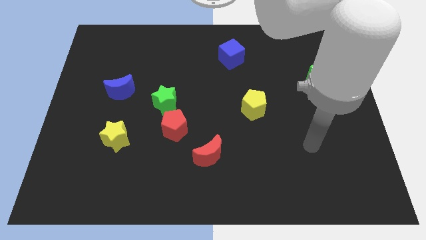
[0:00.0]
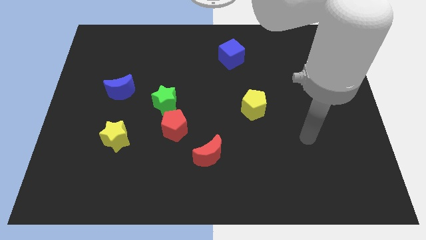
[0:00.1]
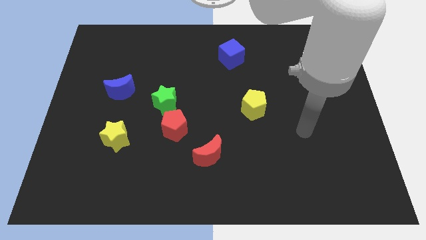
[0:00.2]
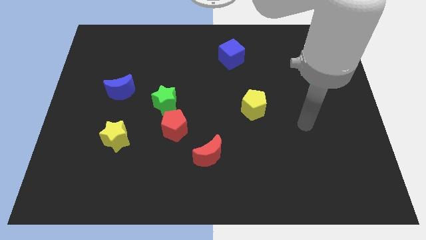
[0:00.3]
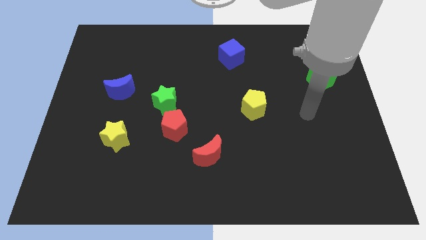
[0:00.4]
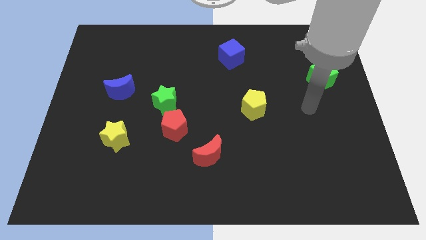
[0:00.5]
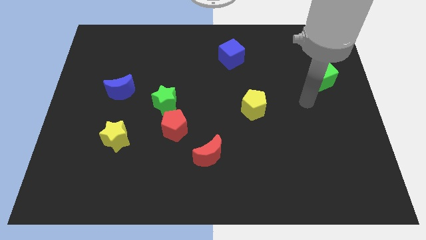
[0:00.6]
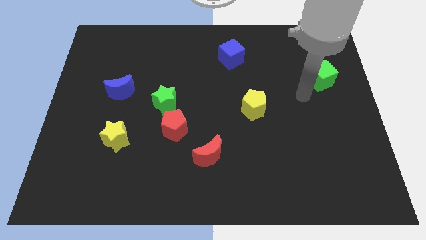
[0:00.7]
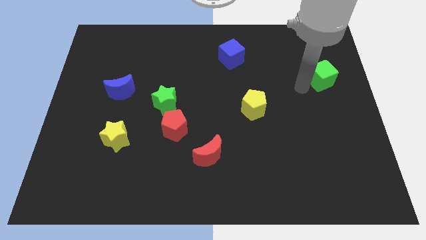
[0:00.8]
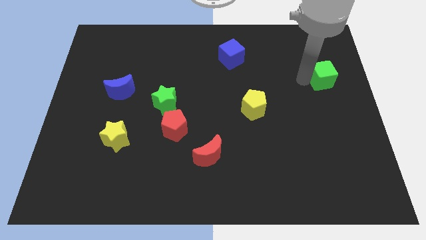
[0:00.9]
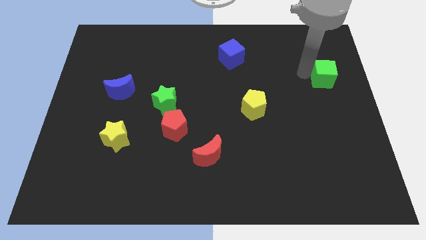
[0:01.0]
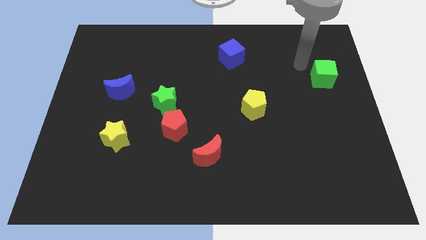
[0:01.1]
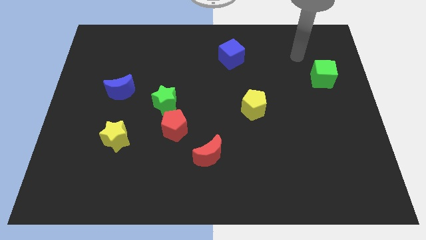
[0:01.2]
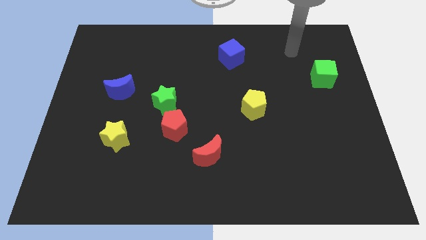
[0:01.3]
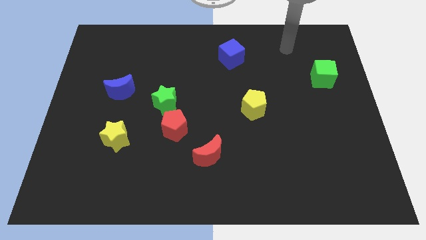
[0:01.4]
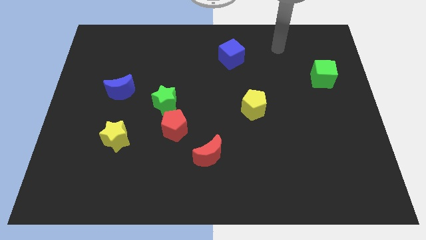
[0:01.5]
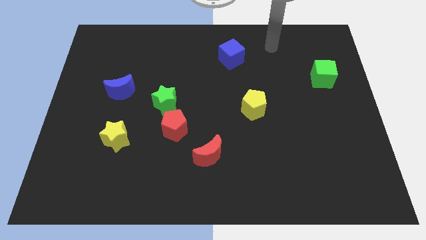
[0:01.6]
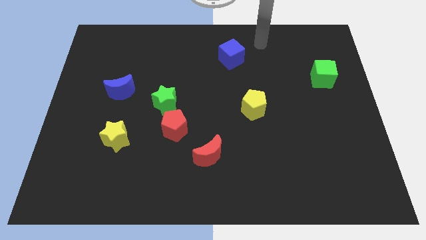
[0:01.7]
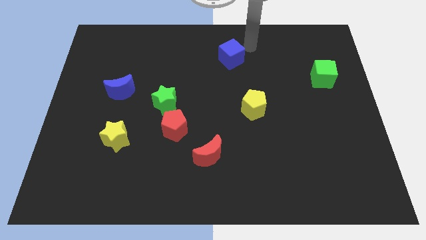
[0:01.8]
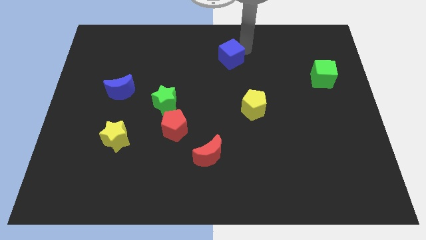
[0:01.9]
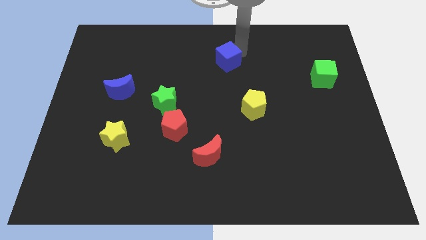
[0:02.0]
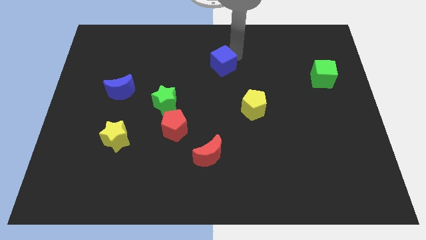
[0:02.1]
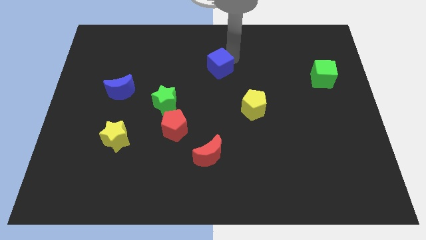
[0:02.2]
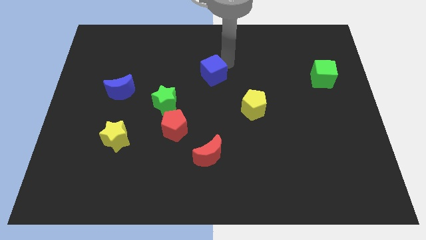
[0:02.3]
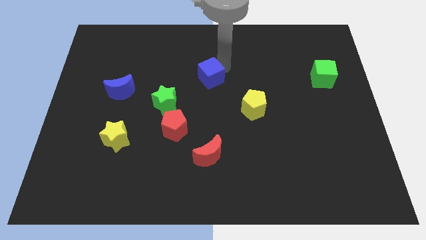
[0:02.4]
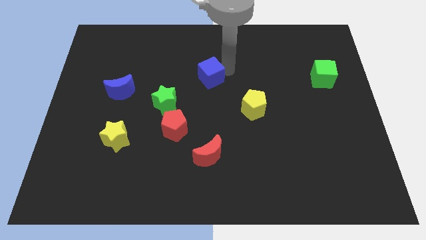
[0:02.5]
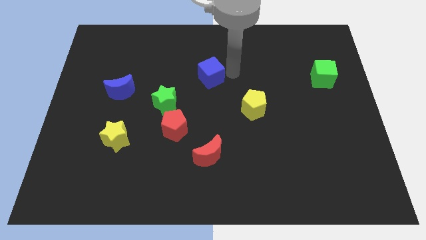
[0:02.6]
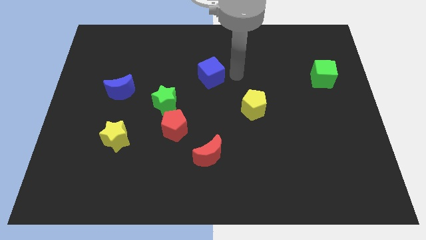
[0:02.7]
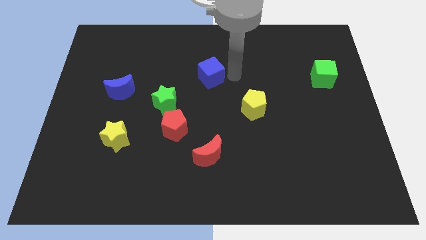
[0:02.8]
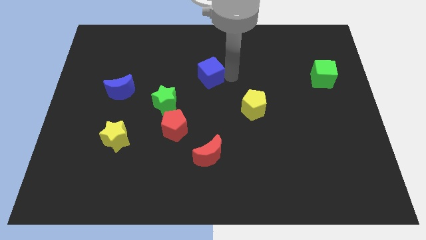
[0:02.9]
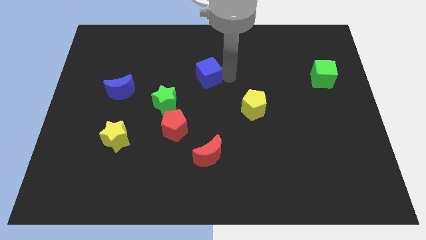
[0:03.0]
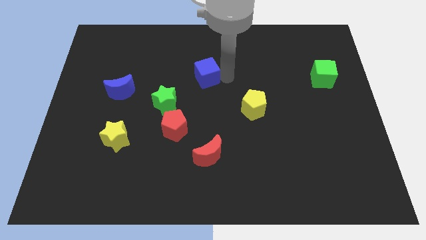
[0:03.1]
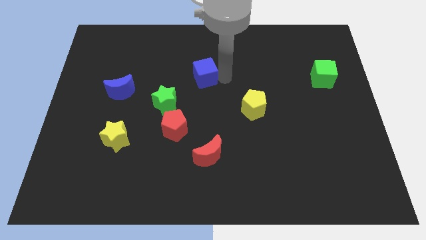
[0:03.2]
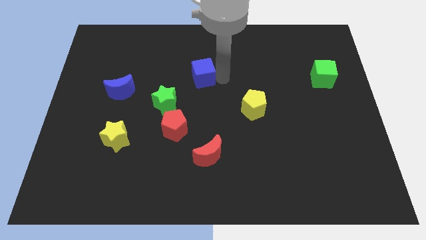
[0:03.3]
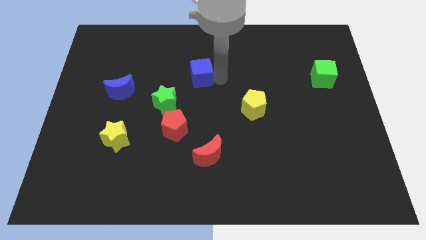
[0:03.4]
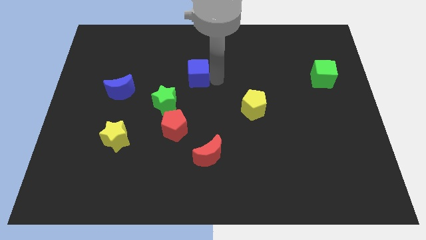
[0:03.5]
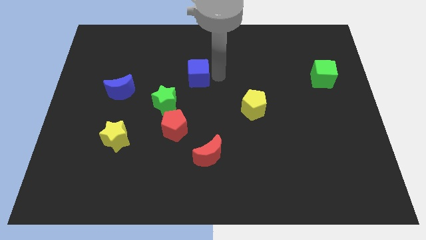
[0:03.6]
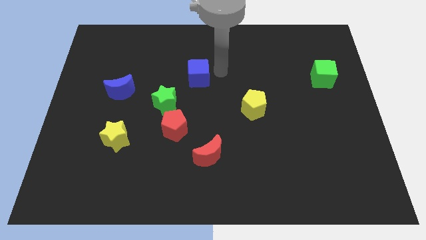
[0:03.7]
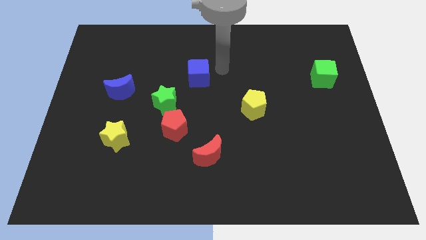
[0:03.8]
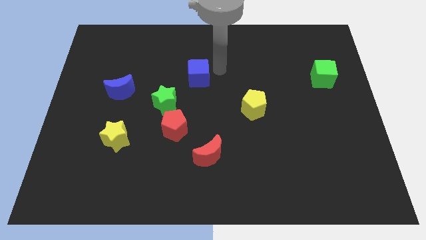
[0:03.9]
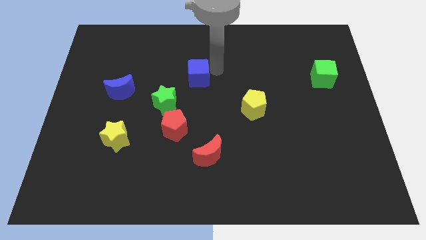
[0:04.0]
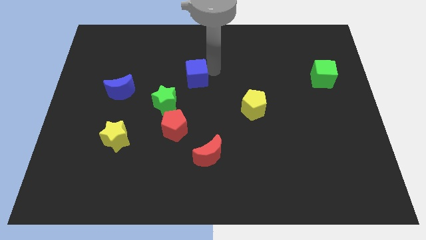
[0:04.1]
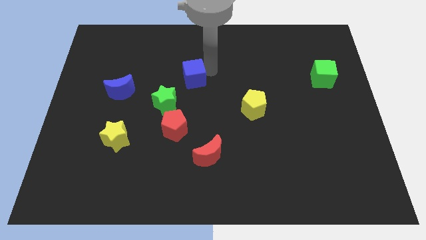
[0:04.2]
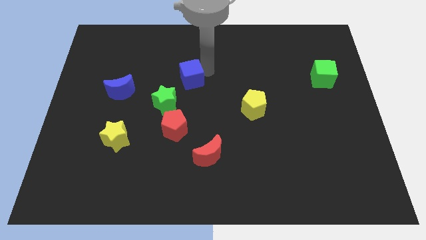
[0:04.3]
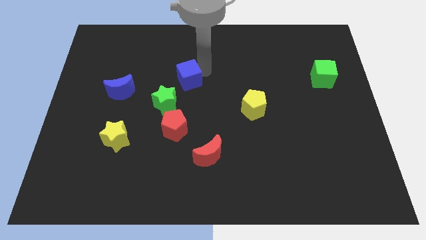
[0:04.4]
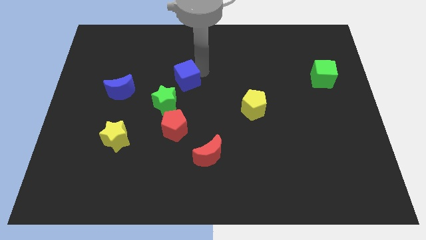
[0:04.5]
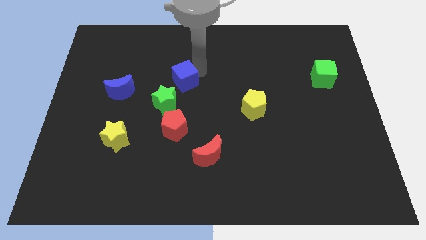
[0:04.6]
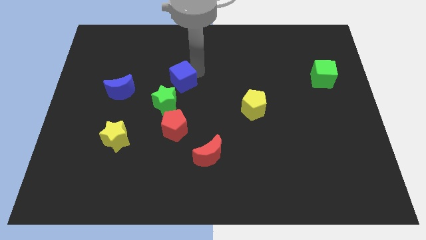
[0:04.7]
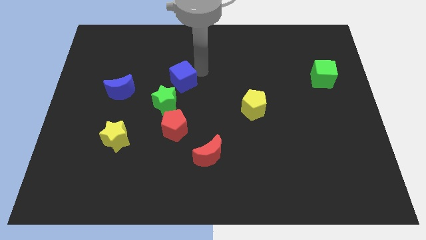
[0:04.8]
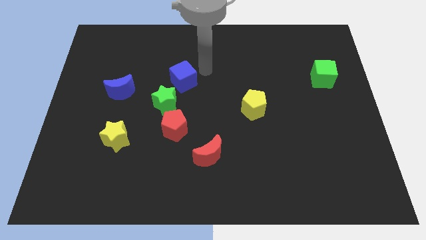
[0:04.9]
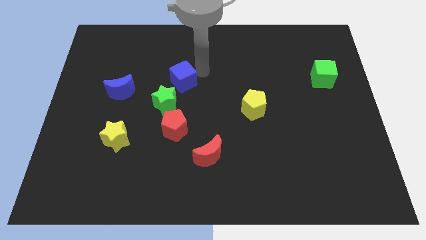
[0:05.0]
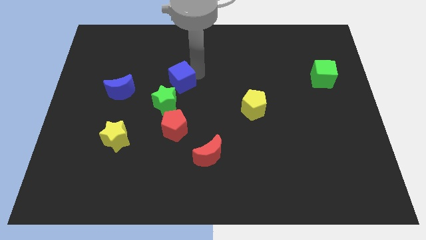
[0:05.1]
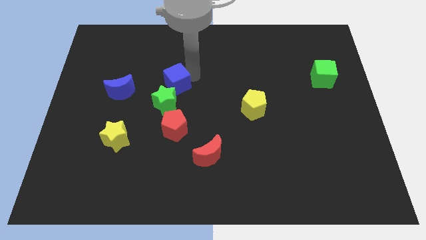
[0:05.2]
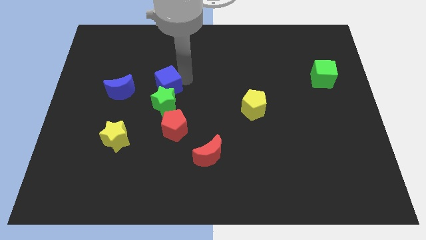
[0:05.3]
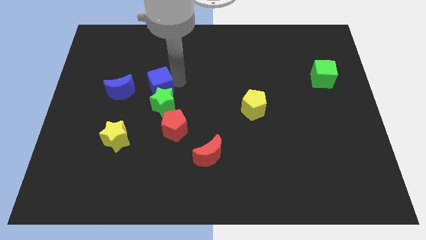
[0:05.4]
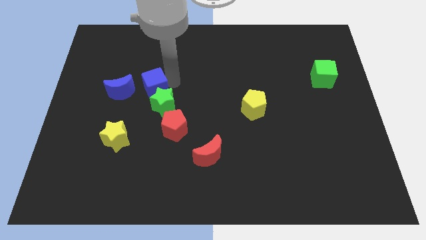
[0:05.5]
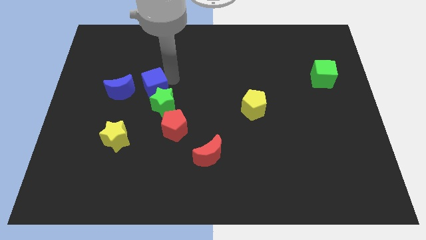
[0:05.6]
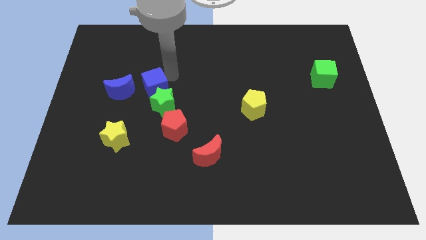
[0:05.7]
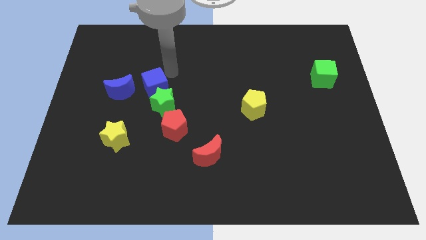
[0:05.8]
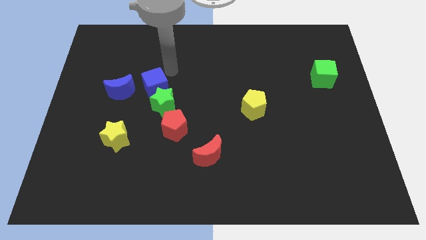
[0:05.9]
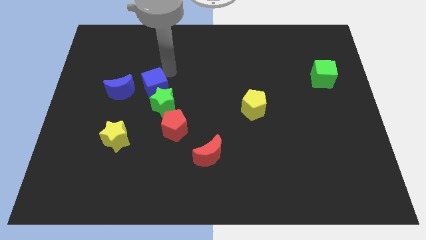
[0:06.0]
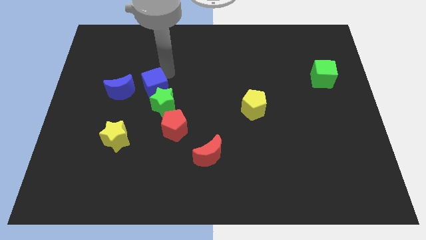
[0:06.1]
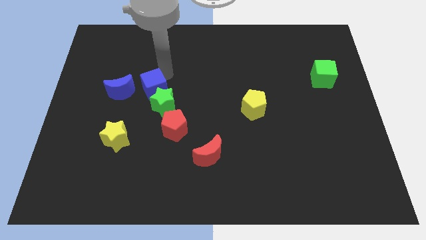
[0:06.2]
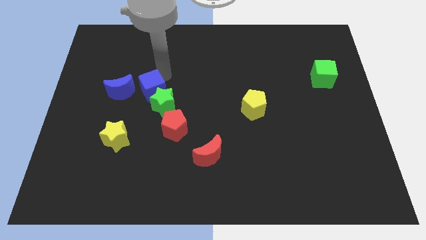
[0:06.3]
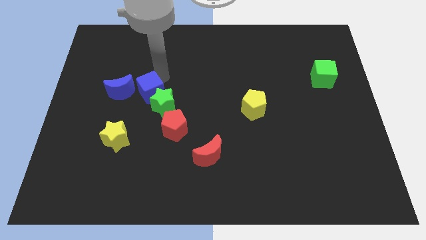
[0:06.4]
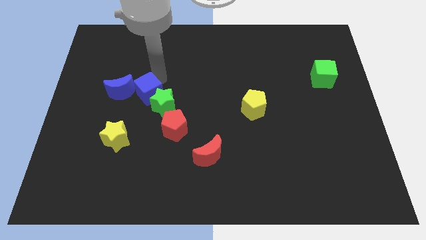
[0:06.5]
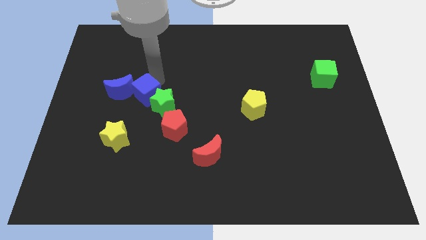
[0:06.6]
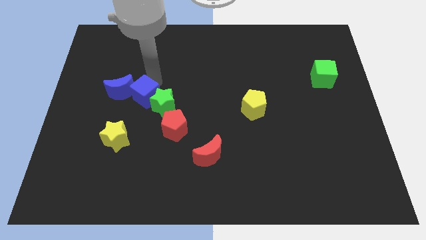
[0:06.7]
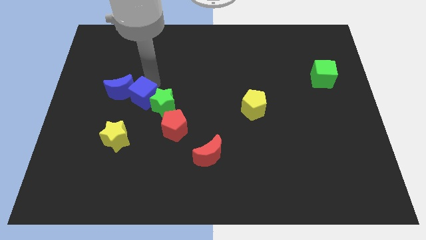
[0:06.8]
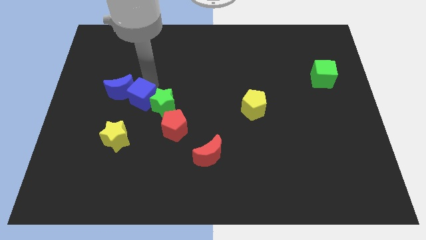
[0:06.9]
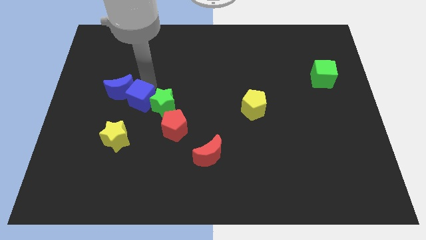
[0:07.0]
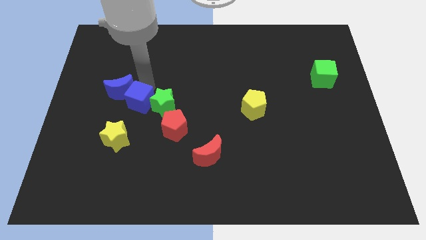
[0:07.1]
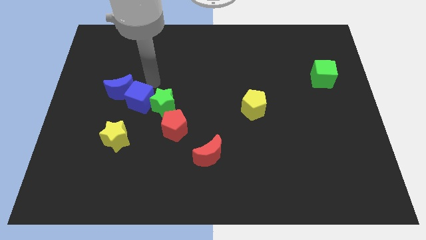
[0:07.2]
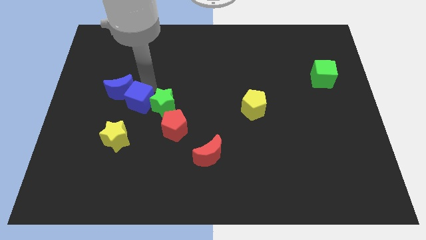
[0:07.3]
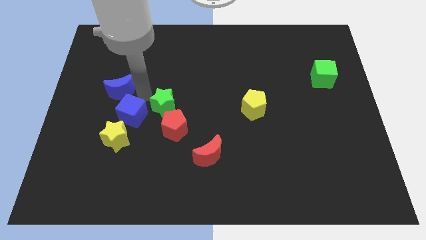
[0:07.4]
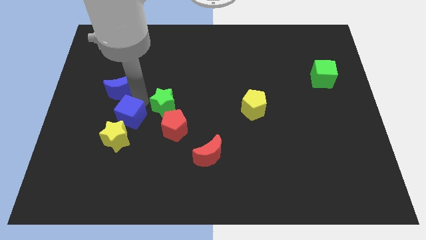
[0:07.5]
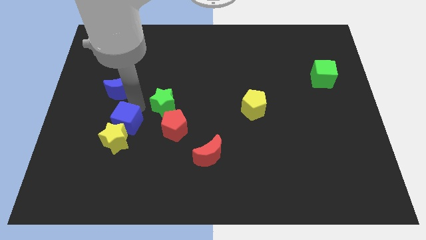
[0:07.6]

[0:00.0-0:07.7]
push the blue cube close to the yellow star
